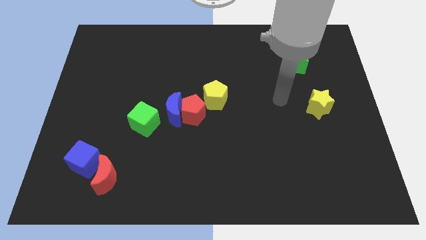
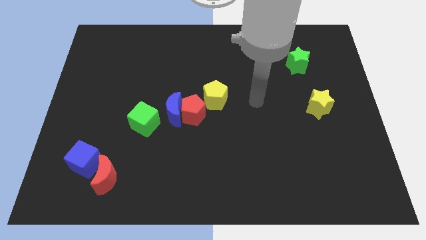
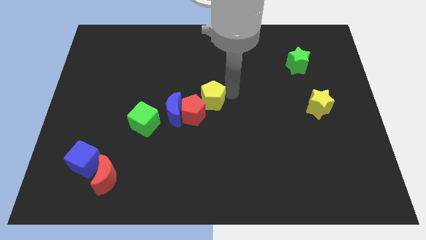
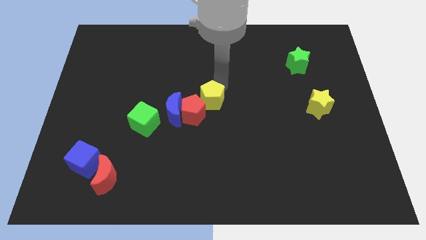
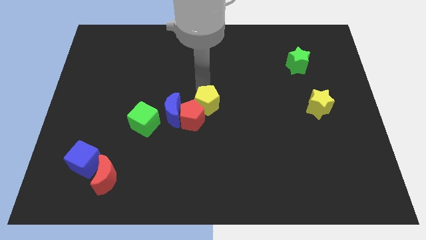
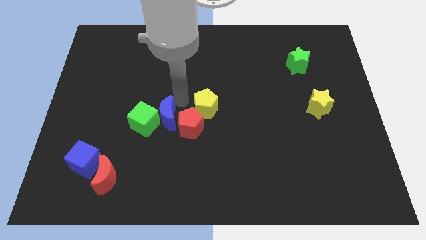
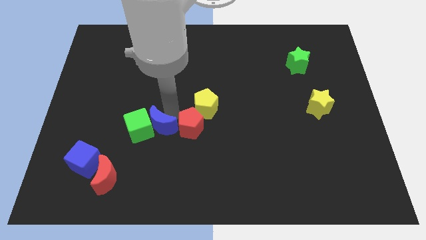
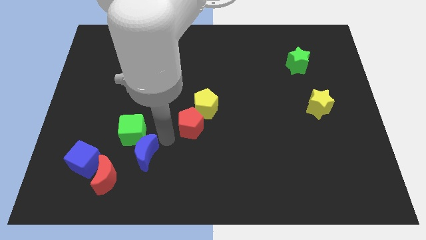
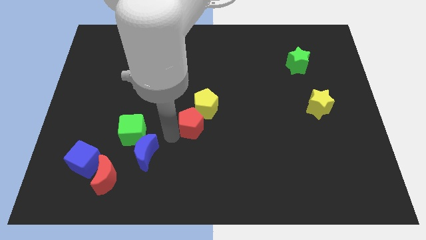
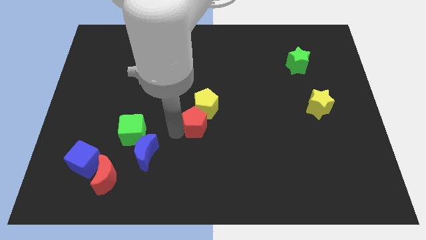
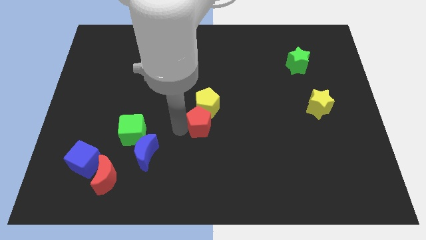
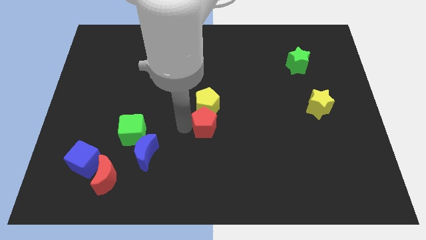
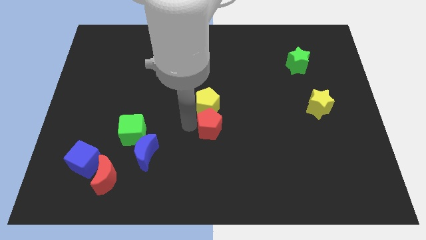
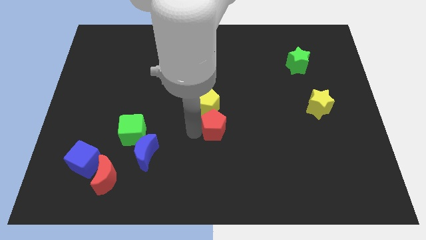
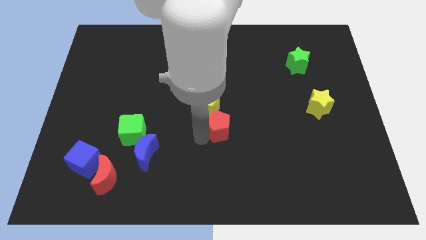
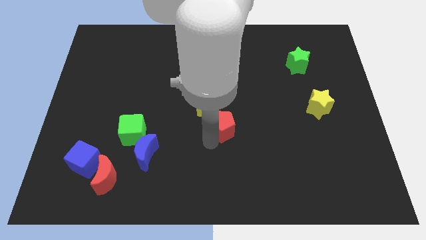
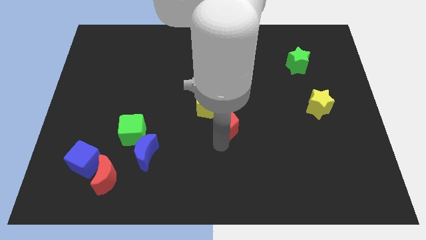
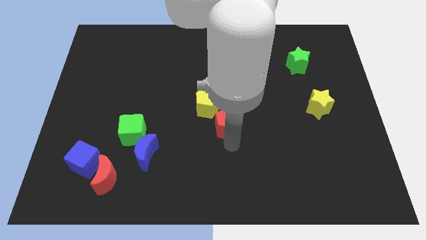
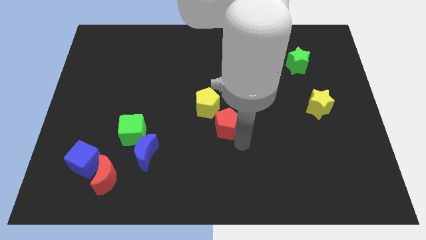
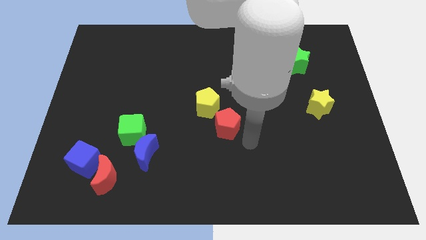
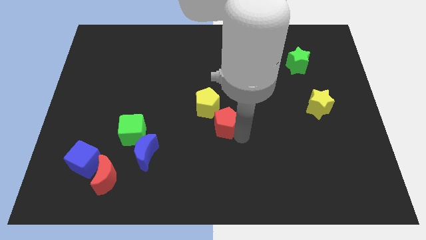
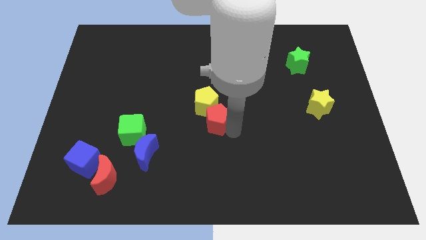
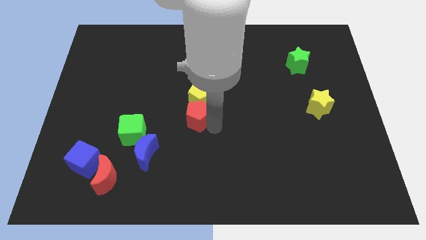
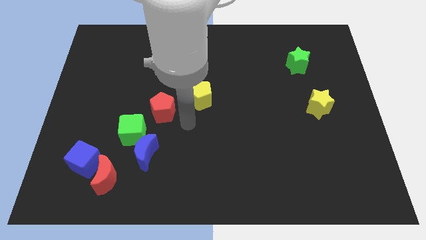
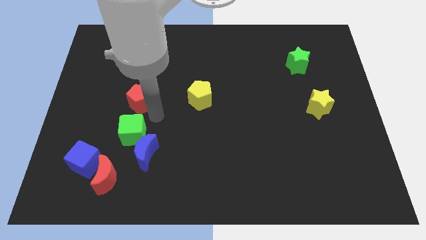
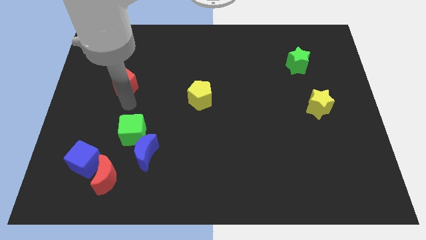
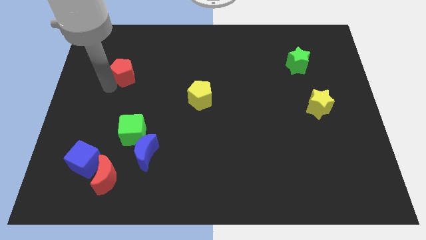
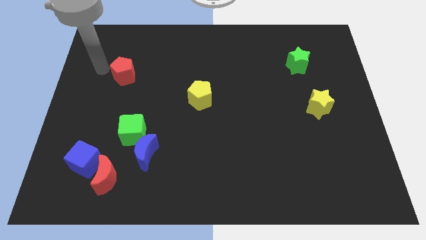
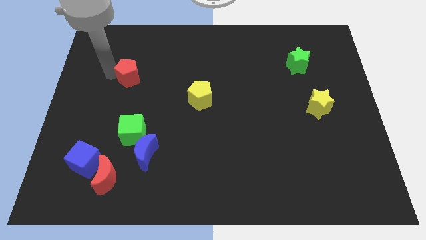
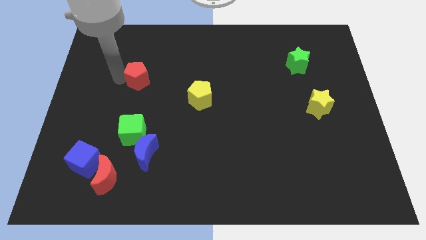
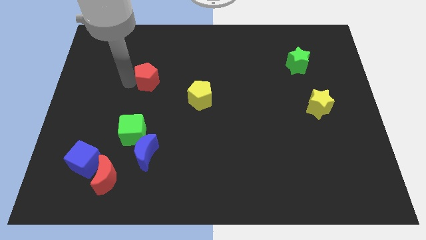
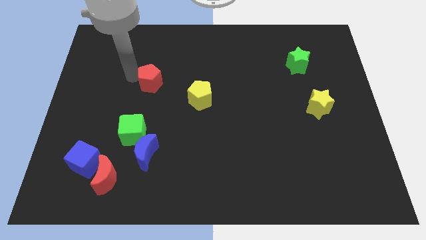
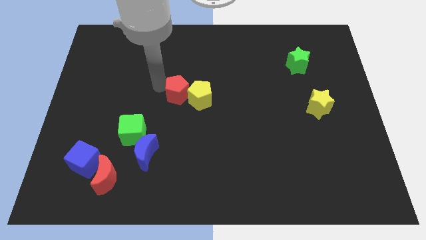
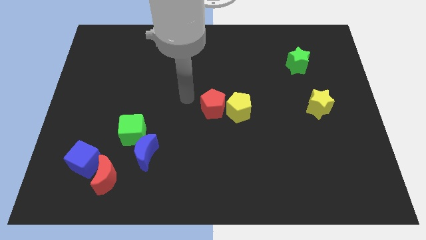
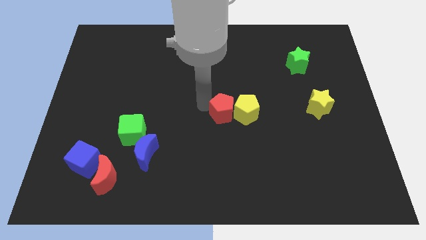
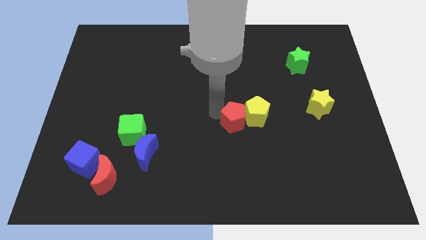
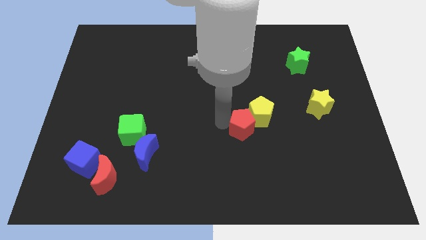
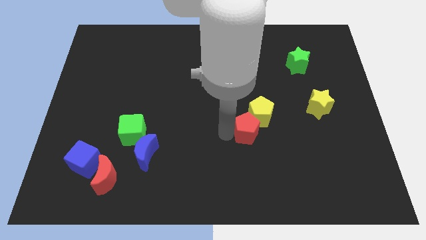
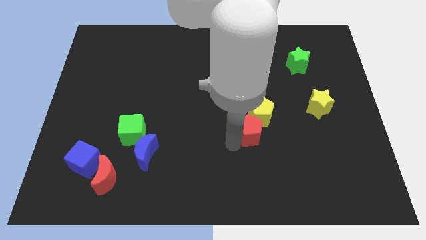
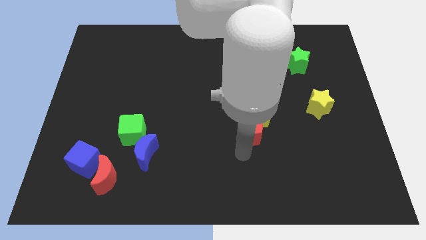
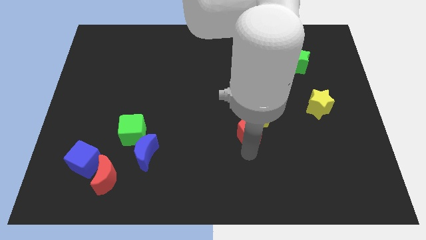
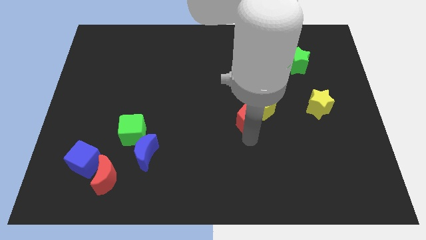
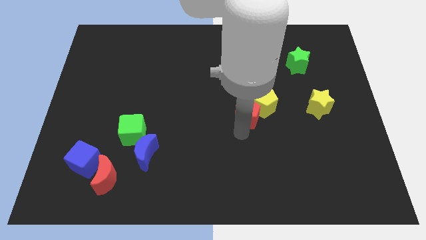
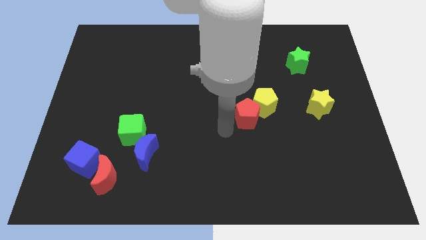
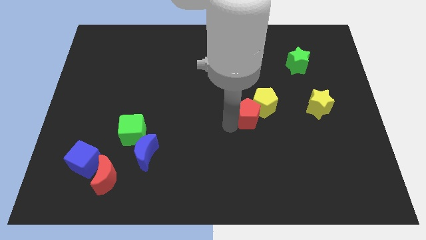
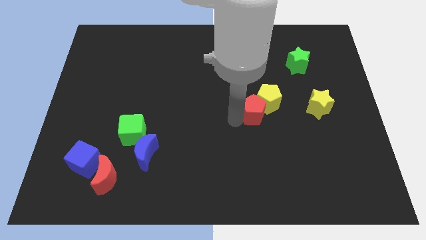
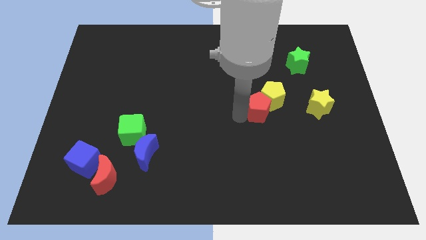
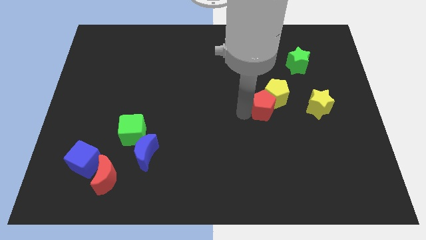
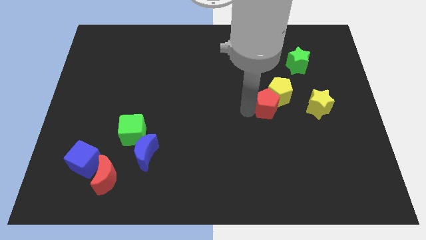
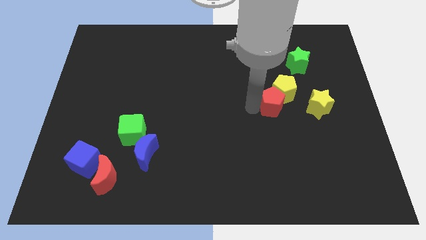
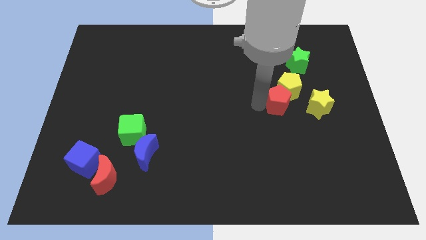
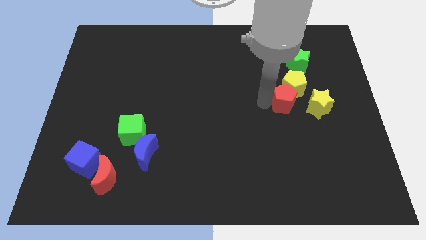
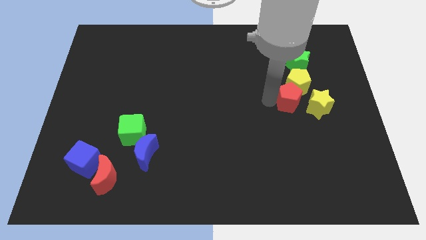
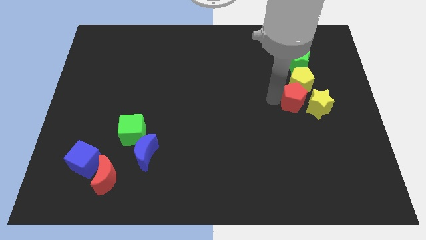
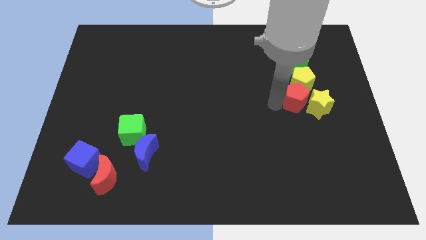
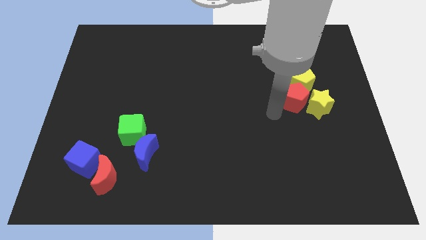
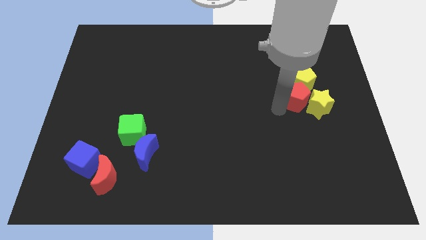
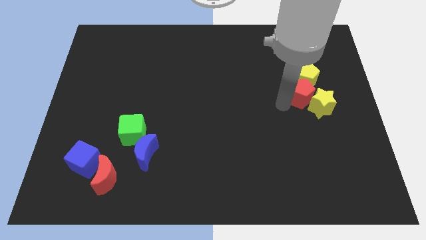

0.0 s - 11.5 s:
move the red pentagon above the yellow star
